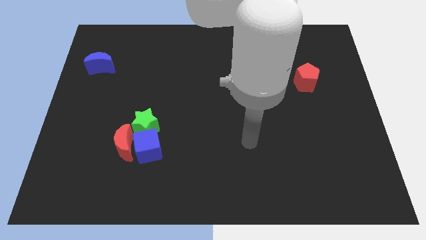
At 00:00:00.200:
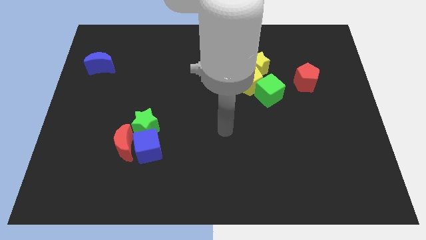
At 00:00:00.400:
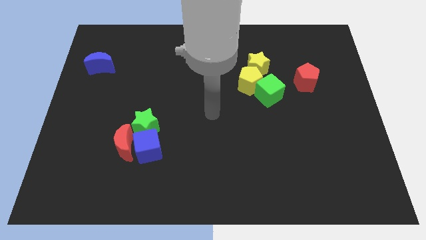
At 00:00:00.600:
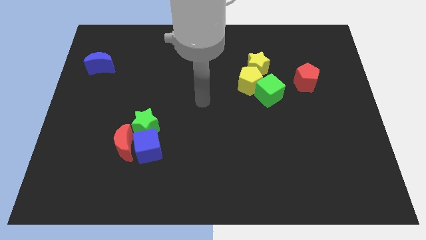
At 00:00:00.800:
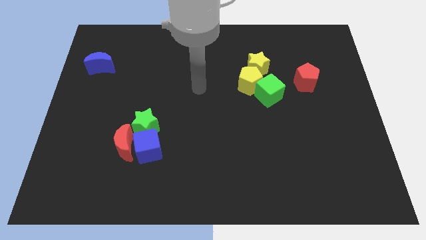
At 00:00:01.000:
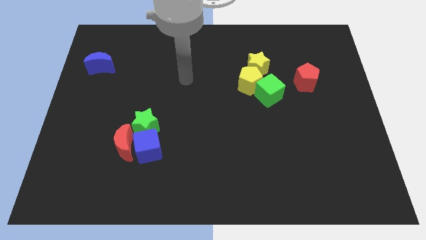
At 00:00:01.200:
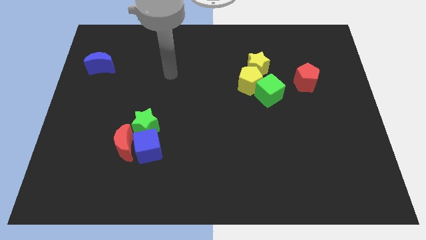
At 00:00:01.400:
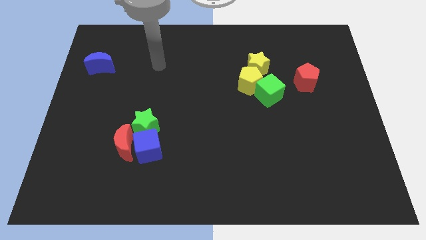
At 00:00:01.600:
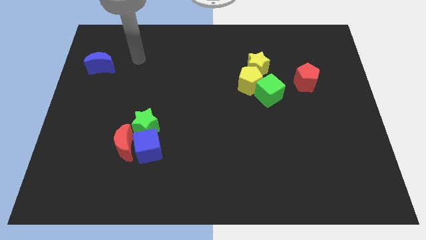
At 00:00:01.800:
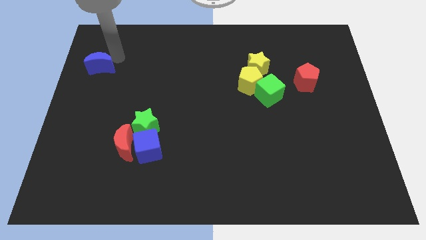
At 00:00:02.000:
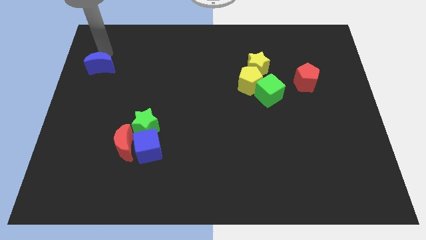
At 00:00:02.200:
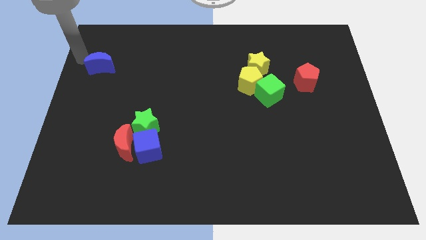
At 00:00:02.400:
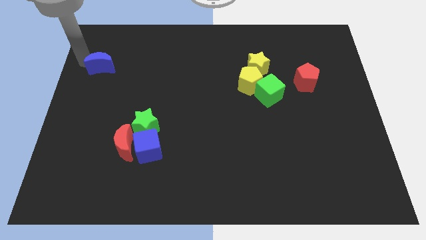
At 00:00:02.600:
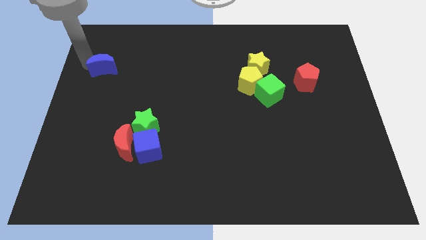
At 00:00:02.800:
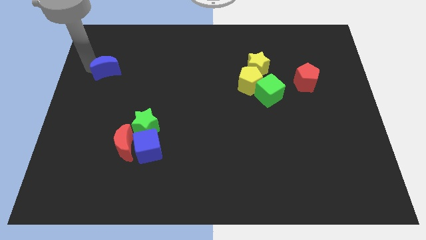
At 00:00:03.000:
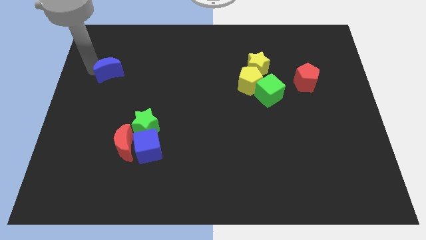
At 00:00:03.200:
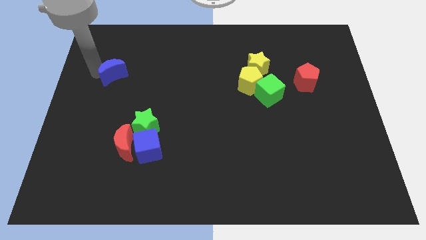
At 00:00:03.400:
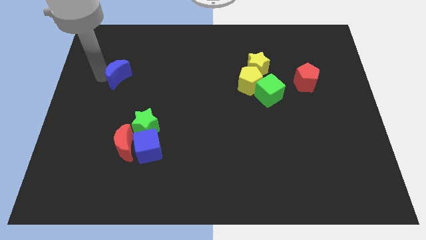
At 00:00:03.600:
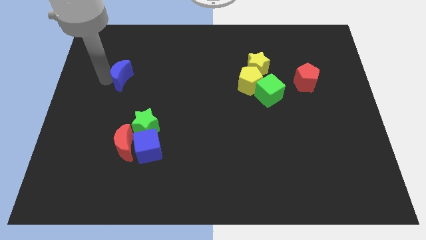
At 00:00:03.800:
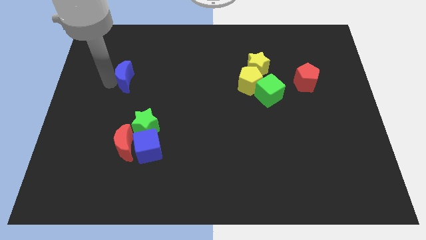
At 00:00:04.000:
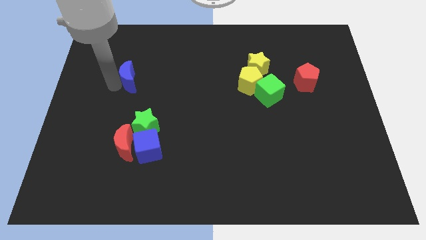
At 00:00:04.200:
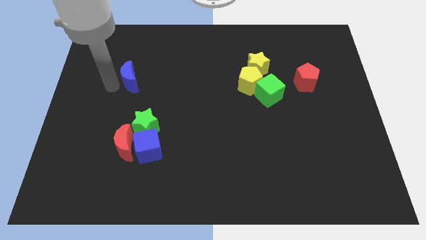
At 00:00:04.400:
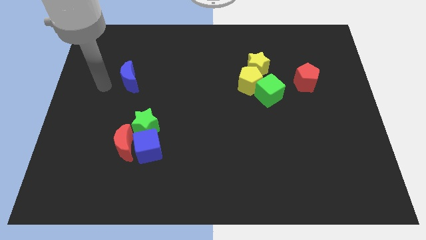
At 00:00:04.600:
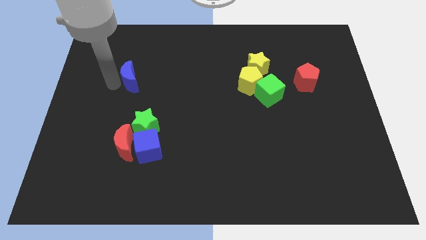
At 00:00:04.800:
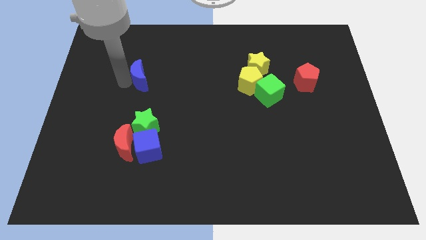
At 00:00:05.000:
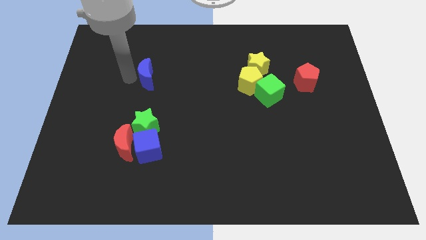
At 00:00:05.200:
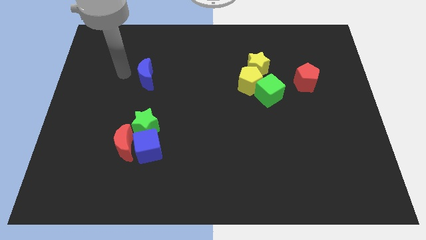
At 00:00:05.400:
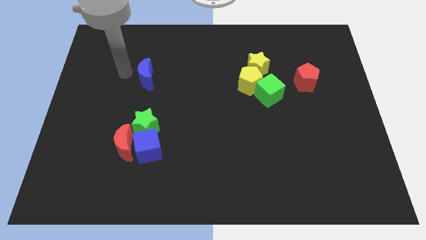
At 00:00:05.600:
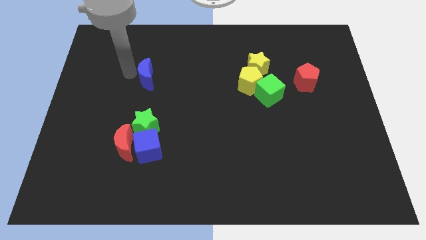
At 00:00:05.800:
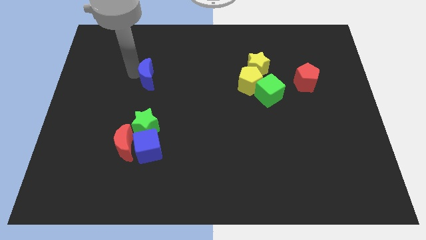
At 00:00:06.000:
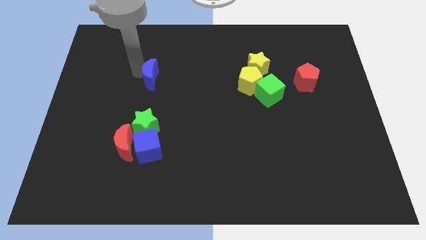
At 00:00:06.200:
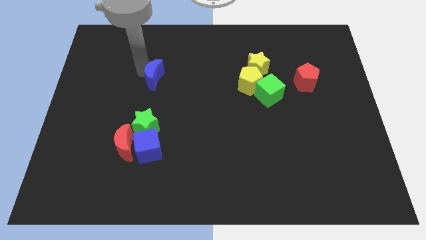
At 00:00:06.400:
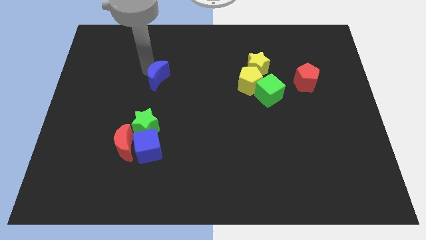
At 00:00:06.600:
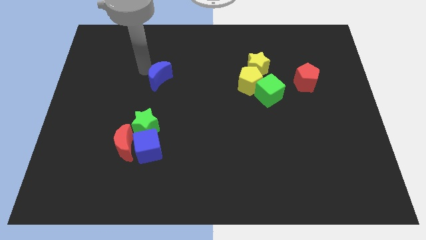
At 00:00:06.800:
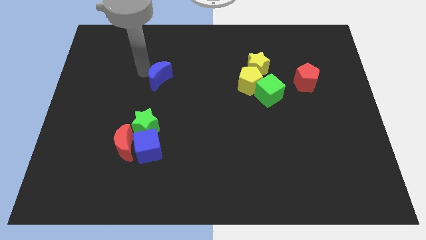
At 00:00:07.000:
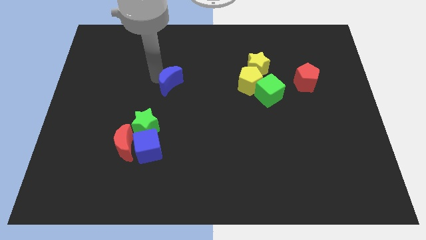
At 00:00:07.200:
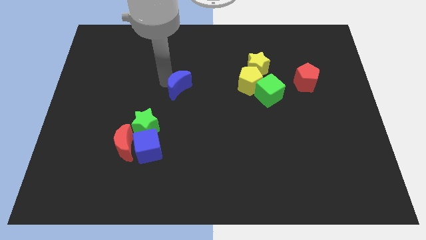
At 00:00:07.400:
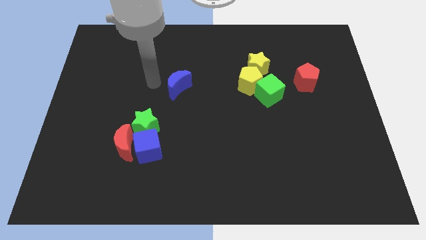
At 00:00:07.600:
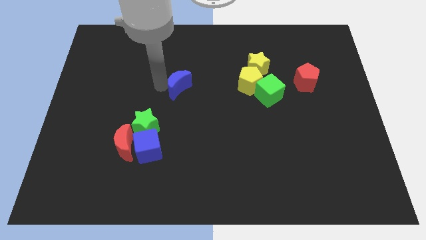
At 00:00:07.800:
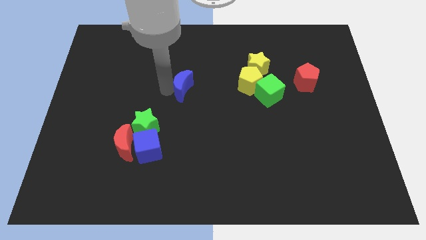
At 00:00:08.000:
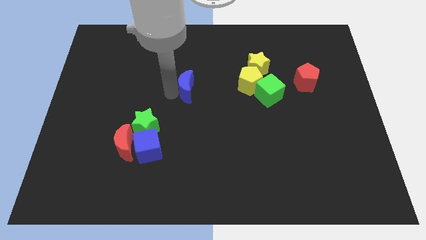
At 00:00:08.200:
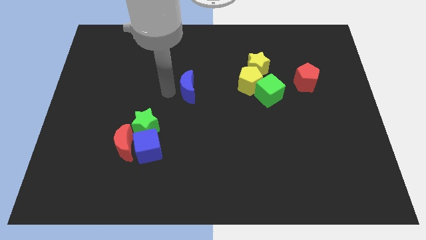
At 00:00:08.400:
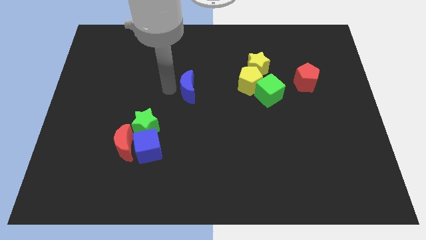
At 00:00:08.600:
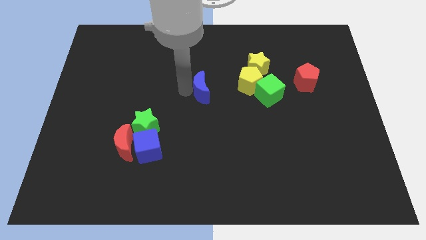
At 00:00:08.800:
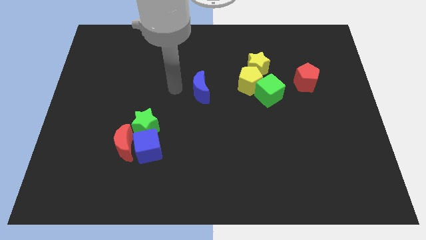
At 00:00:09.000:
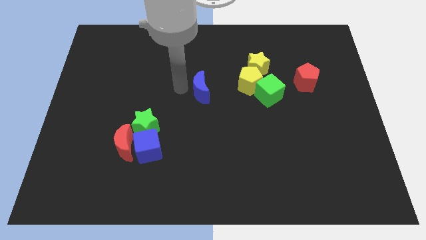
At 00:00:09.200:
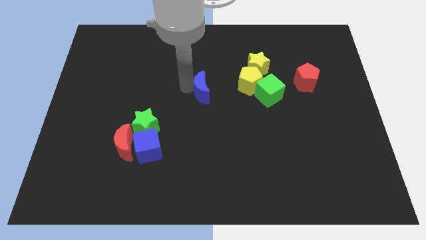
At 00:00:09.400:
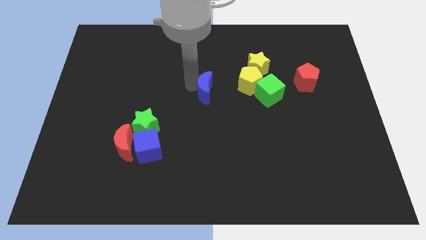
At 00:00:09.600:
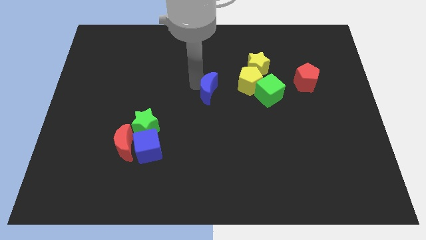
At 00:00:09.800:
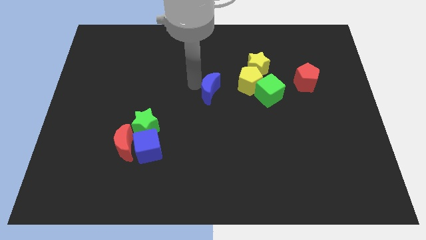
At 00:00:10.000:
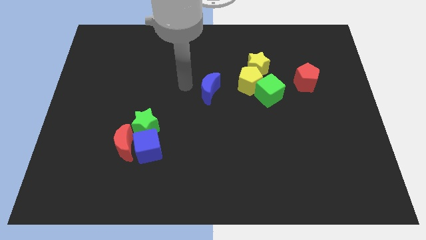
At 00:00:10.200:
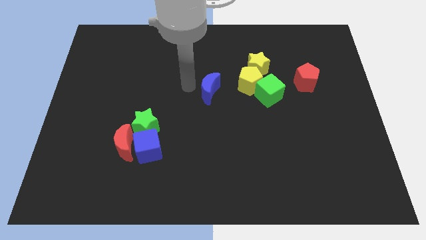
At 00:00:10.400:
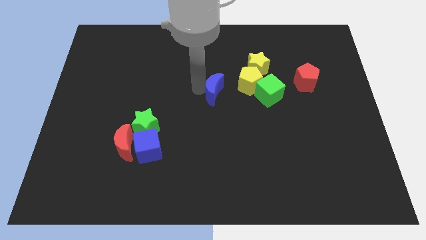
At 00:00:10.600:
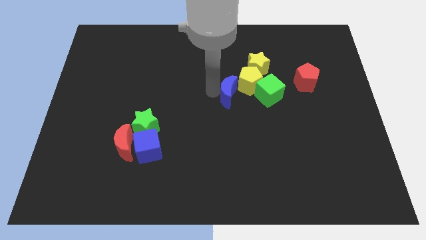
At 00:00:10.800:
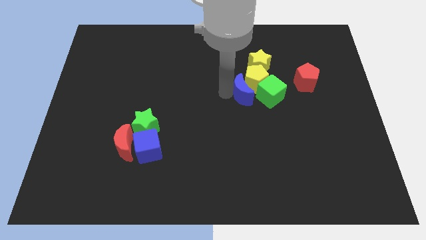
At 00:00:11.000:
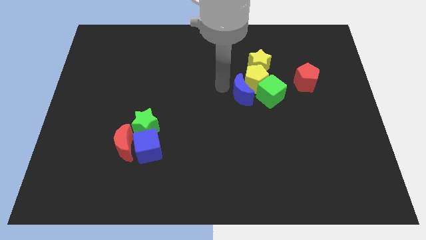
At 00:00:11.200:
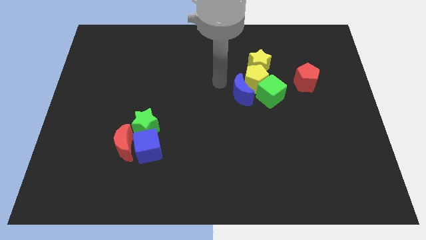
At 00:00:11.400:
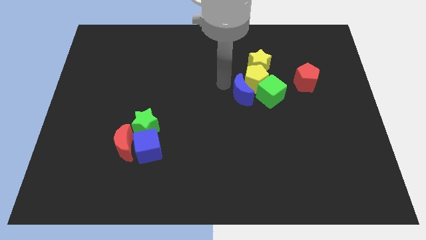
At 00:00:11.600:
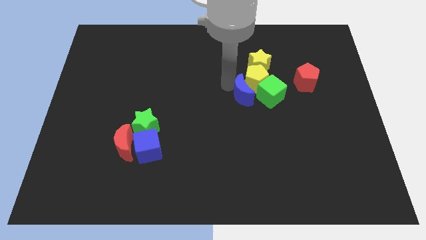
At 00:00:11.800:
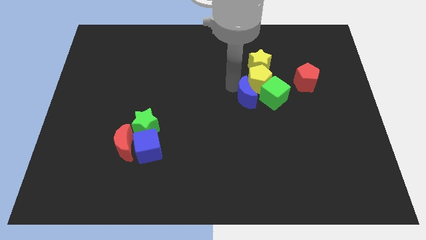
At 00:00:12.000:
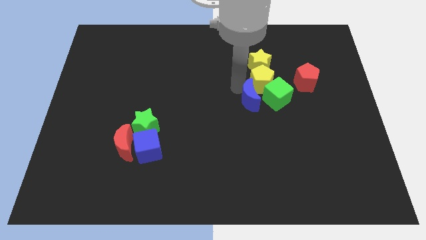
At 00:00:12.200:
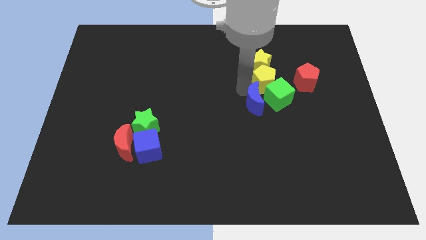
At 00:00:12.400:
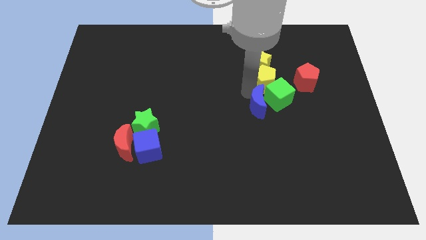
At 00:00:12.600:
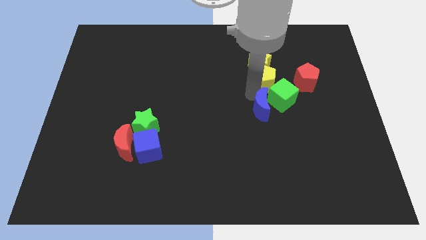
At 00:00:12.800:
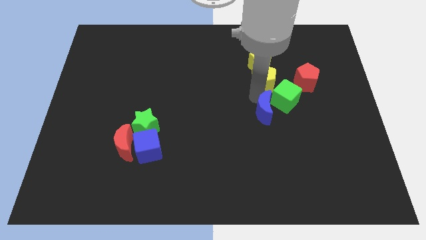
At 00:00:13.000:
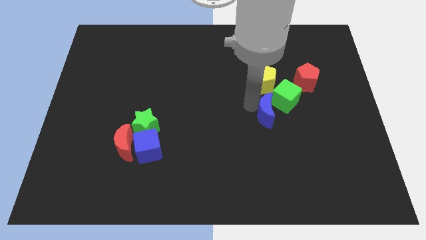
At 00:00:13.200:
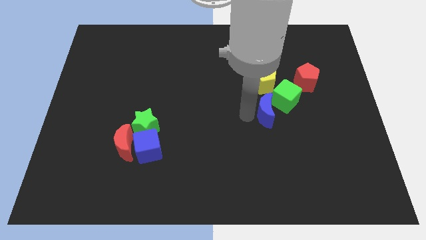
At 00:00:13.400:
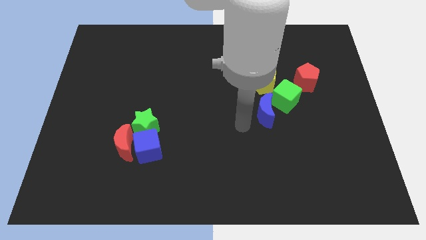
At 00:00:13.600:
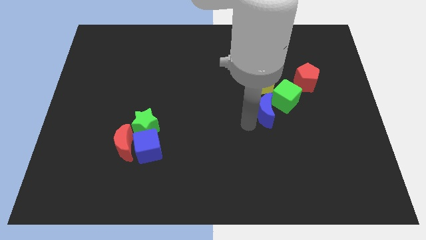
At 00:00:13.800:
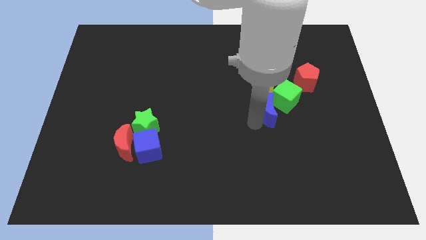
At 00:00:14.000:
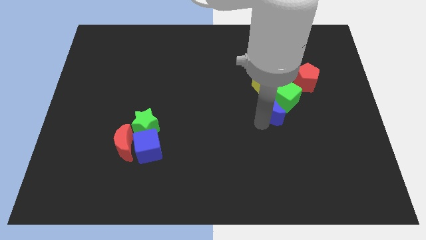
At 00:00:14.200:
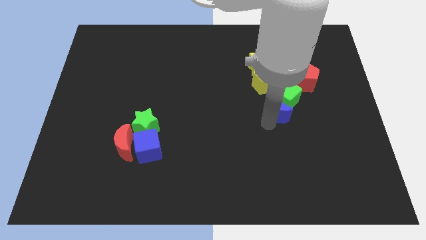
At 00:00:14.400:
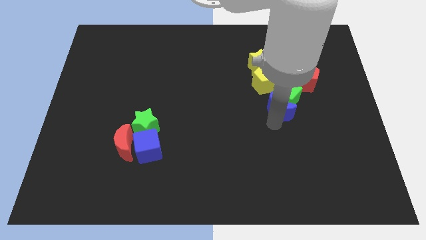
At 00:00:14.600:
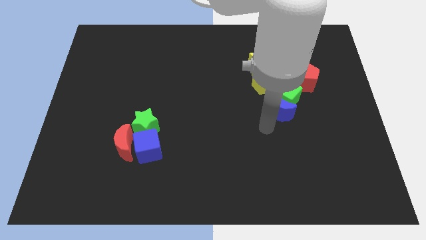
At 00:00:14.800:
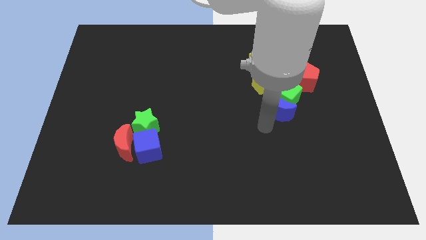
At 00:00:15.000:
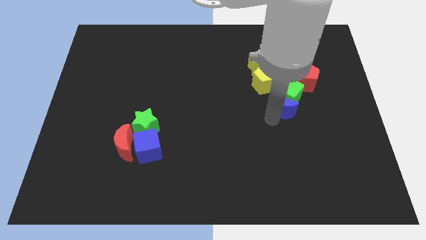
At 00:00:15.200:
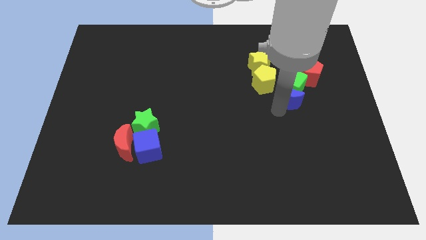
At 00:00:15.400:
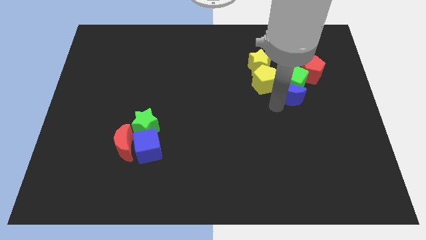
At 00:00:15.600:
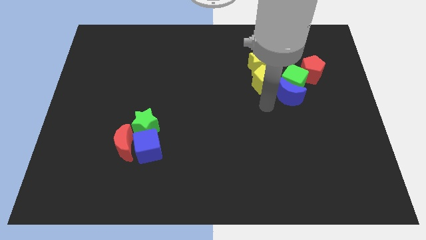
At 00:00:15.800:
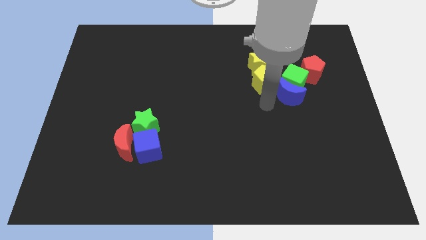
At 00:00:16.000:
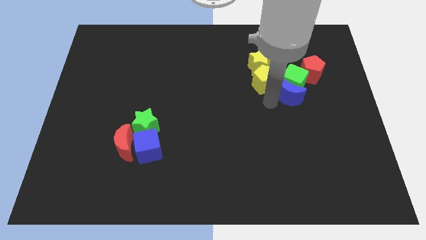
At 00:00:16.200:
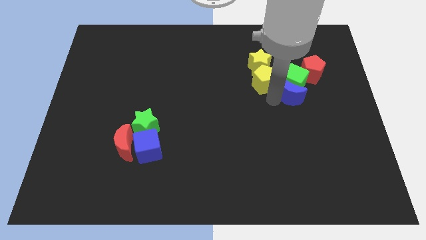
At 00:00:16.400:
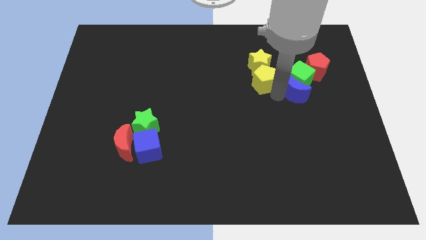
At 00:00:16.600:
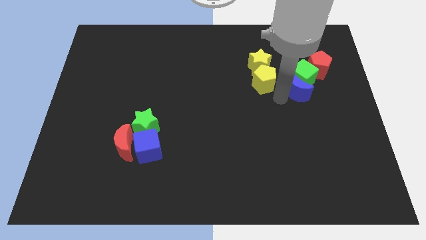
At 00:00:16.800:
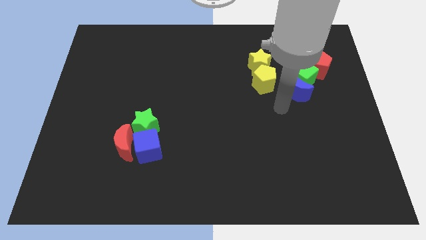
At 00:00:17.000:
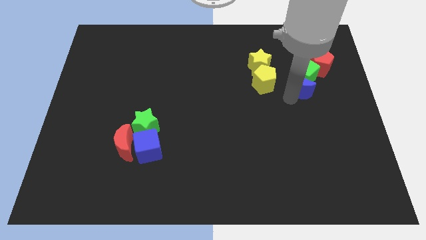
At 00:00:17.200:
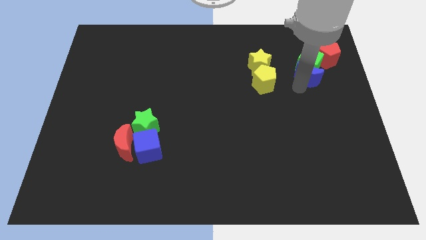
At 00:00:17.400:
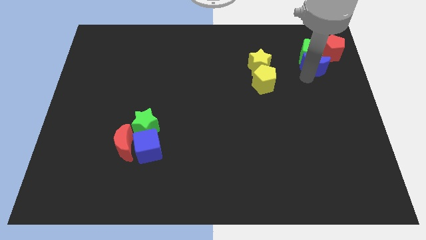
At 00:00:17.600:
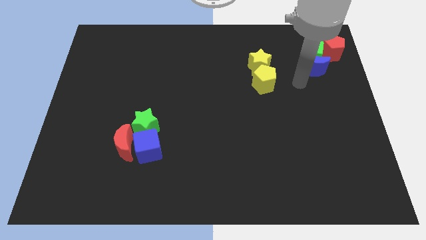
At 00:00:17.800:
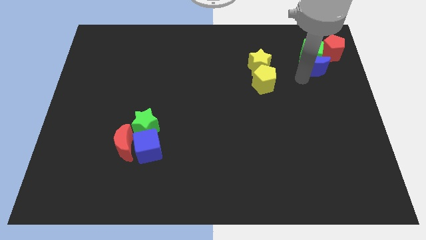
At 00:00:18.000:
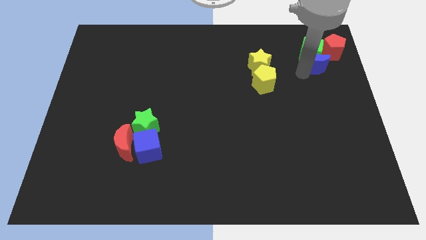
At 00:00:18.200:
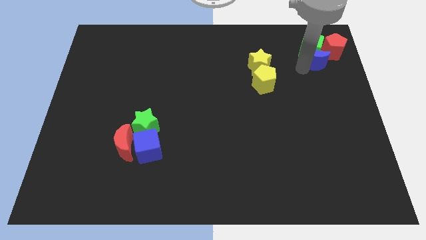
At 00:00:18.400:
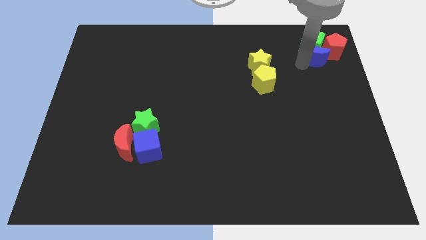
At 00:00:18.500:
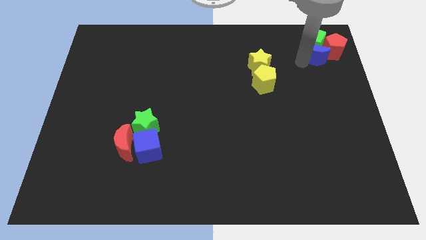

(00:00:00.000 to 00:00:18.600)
put the blue moon close to the red pentagon
